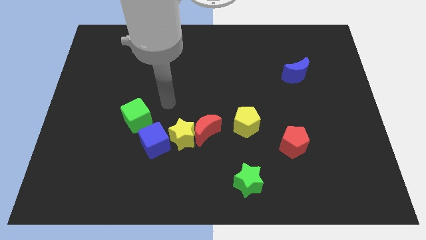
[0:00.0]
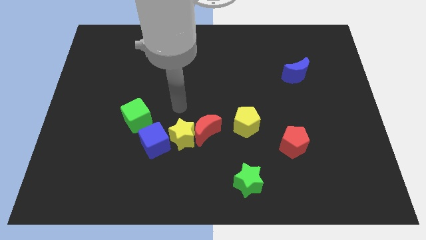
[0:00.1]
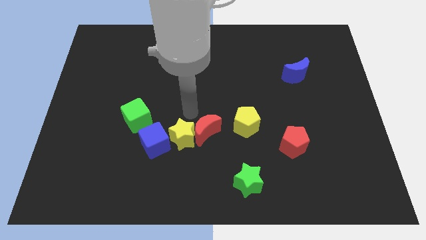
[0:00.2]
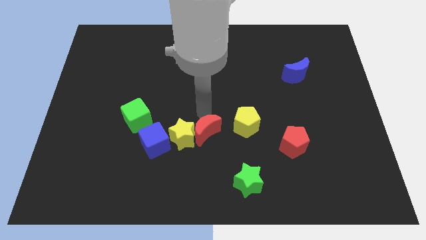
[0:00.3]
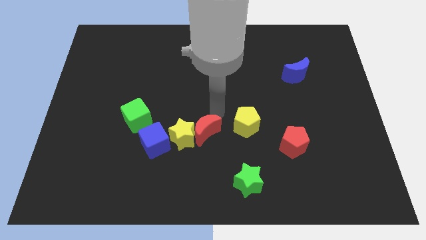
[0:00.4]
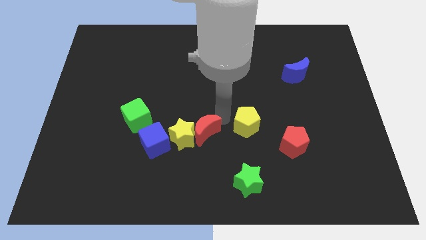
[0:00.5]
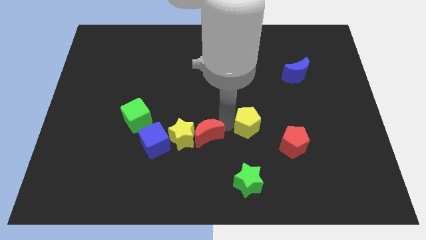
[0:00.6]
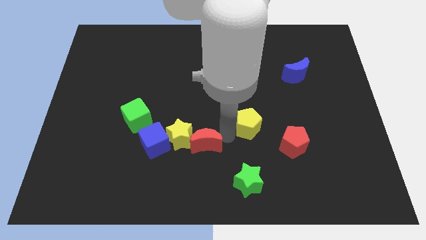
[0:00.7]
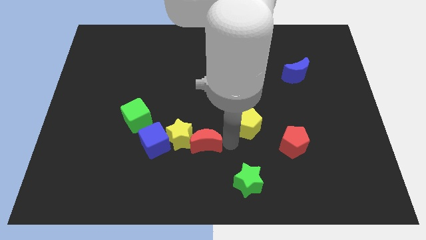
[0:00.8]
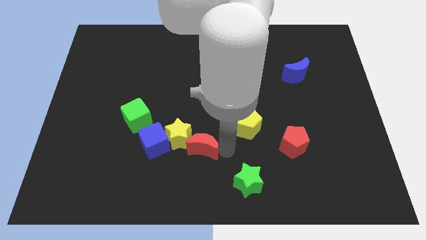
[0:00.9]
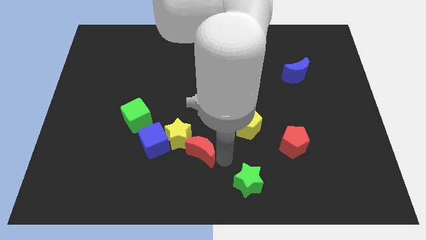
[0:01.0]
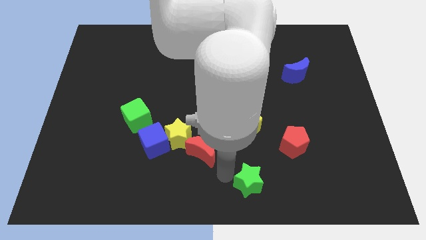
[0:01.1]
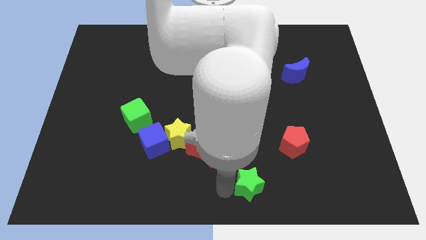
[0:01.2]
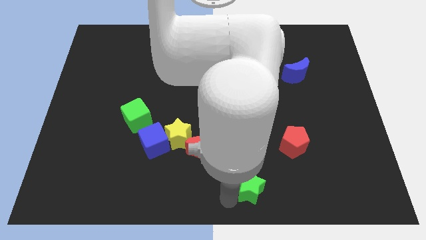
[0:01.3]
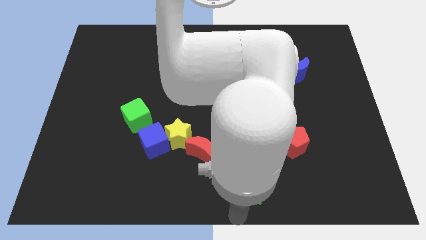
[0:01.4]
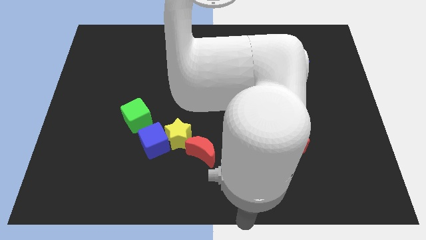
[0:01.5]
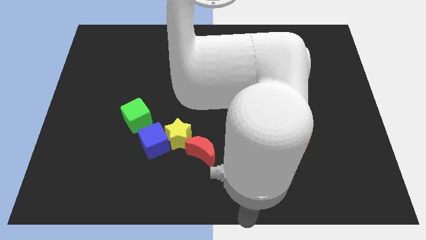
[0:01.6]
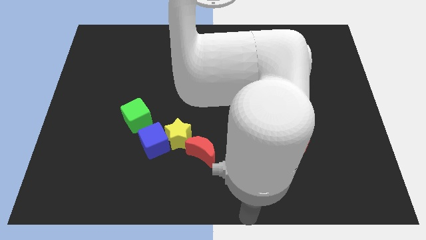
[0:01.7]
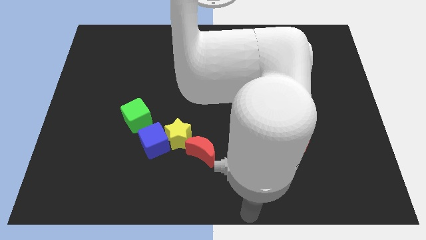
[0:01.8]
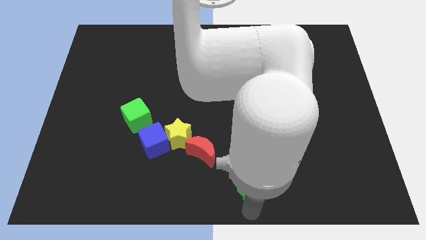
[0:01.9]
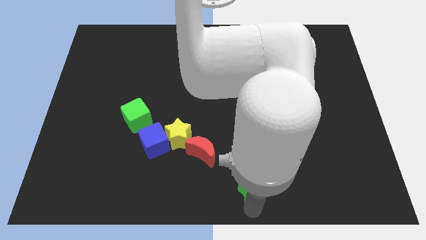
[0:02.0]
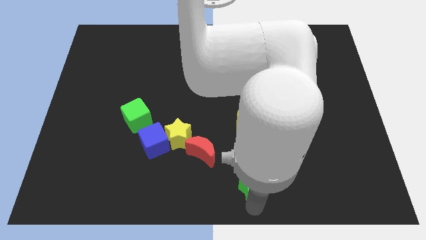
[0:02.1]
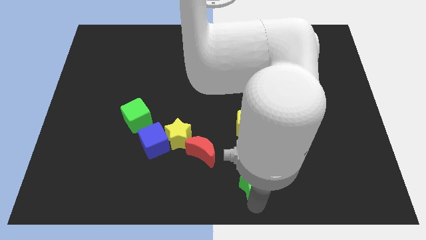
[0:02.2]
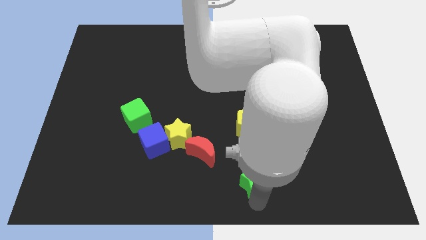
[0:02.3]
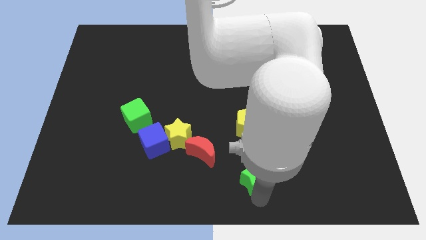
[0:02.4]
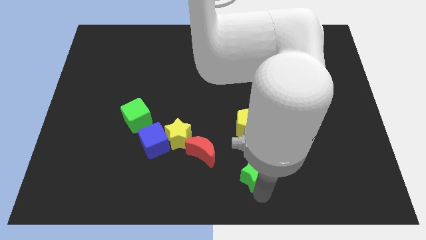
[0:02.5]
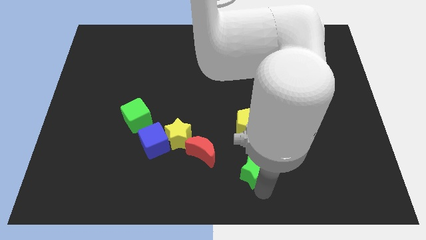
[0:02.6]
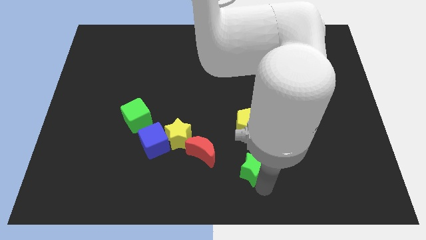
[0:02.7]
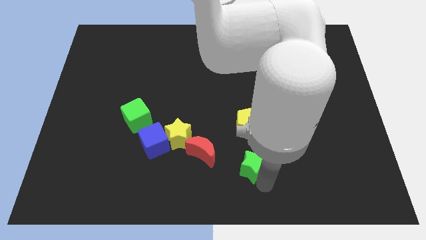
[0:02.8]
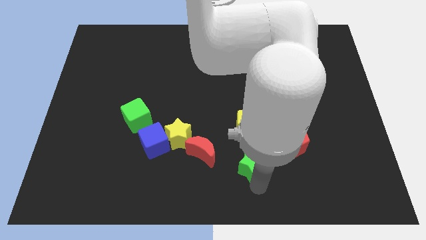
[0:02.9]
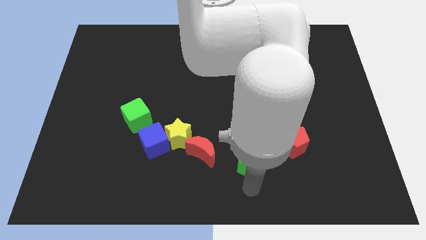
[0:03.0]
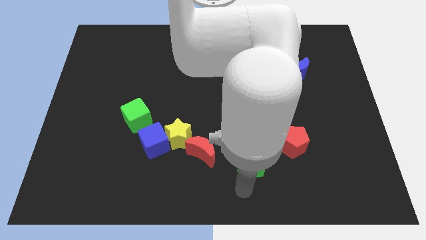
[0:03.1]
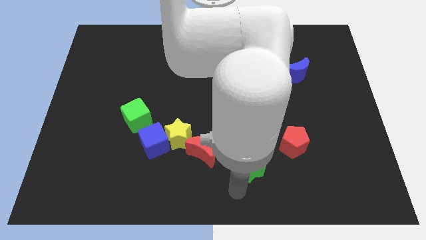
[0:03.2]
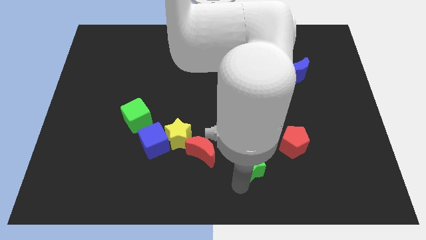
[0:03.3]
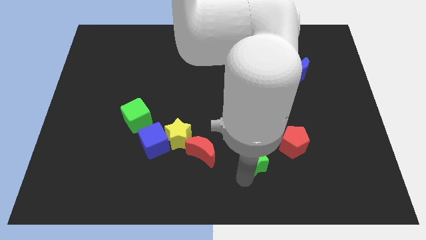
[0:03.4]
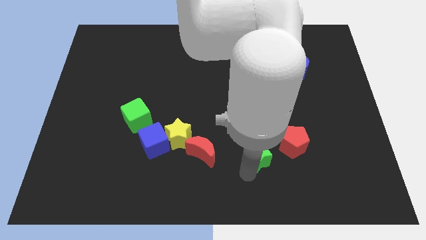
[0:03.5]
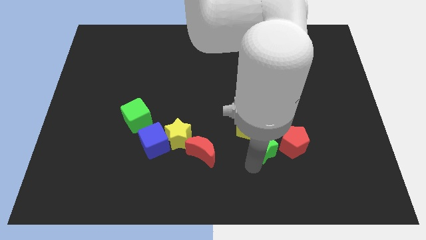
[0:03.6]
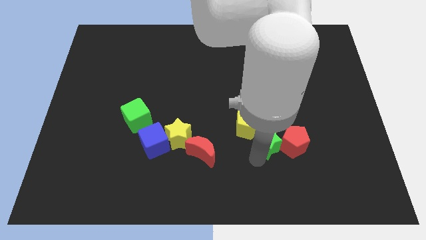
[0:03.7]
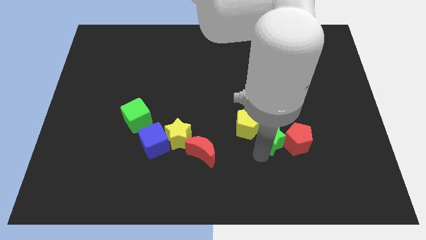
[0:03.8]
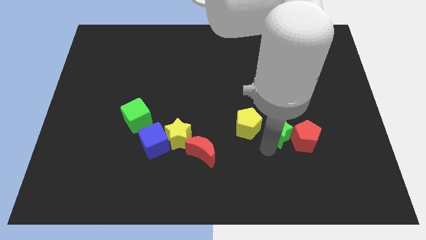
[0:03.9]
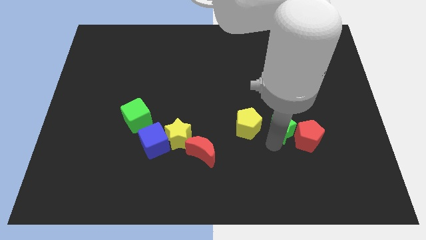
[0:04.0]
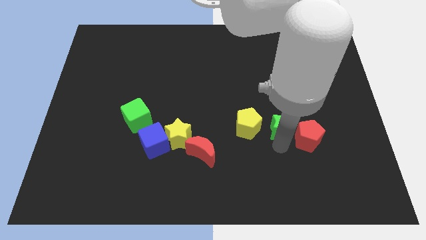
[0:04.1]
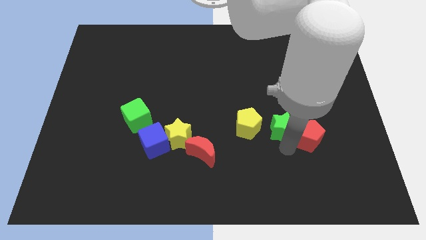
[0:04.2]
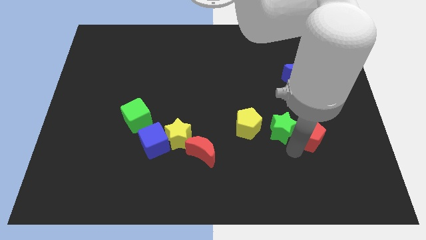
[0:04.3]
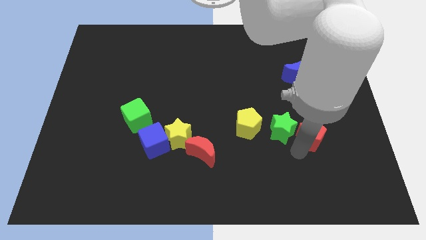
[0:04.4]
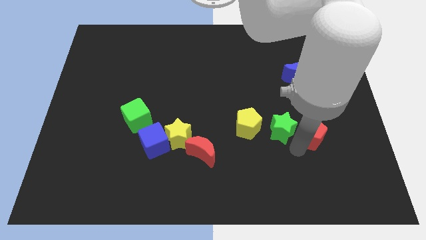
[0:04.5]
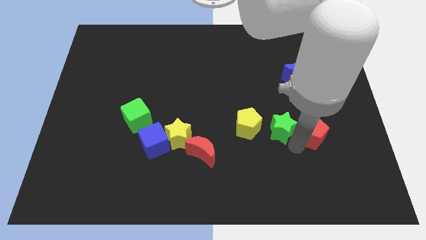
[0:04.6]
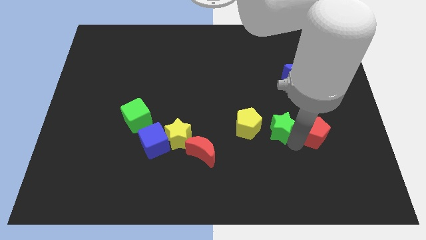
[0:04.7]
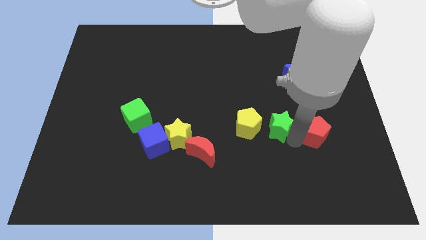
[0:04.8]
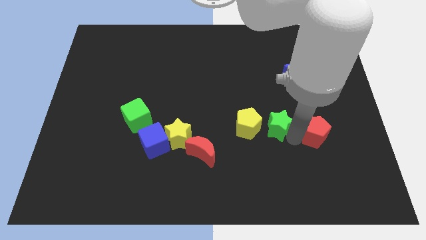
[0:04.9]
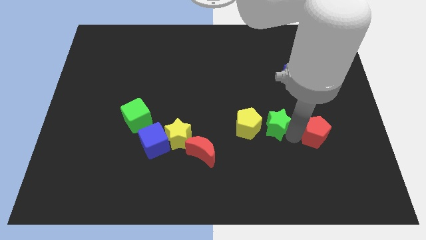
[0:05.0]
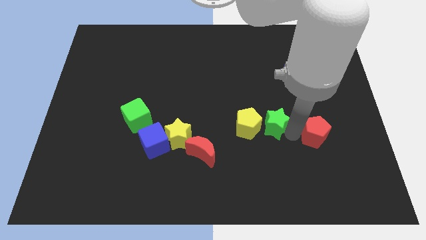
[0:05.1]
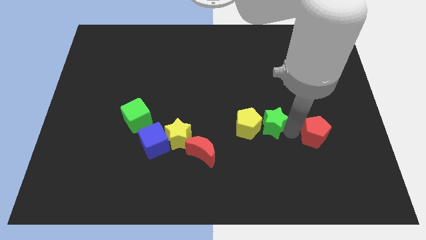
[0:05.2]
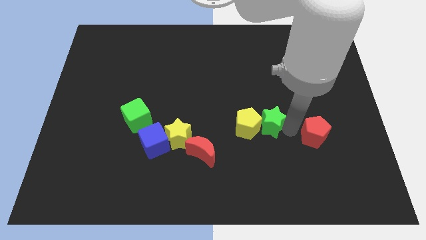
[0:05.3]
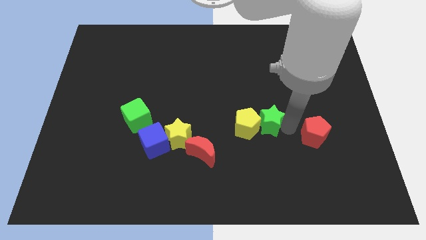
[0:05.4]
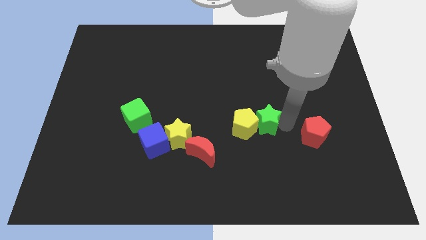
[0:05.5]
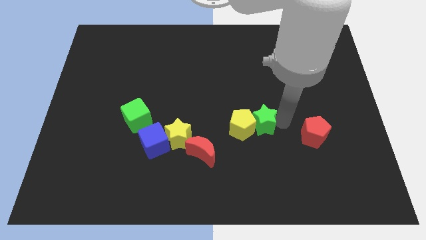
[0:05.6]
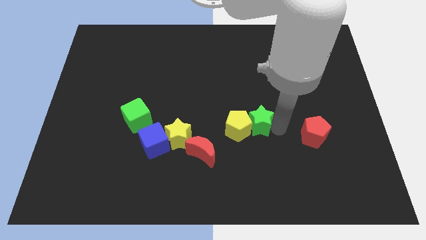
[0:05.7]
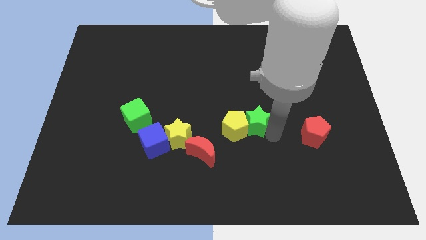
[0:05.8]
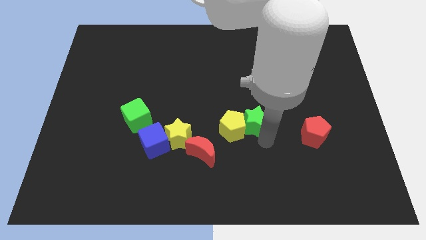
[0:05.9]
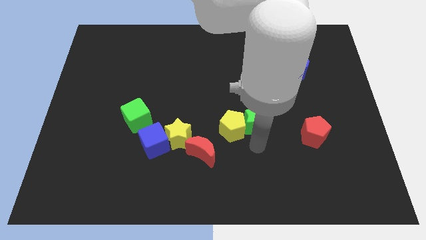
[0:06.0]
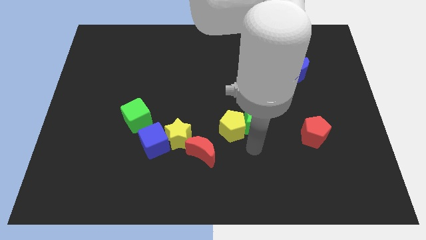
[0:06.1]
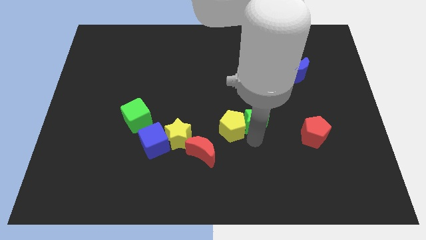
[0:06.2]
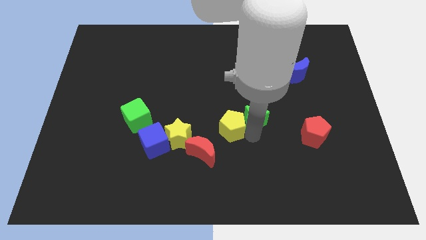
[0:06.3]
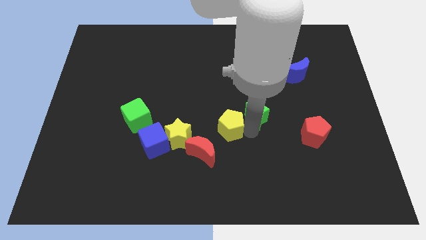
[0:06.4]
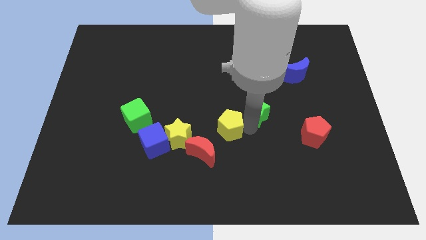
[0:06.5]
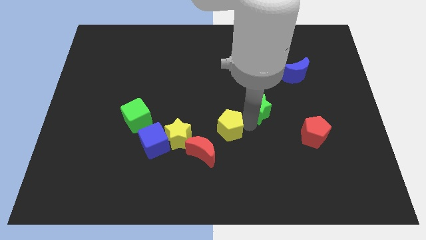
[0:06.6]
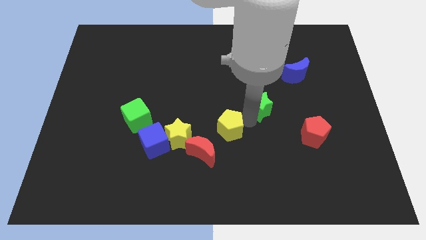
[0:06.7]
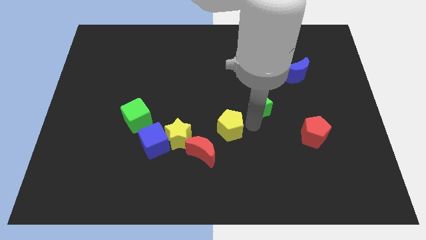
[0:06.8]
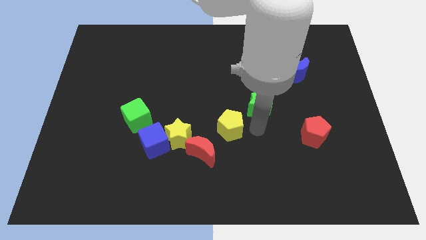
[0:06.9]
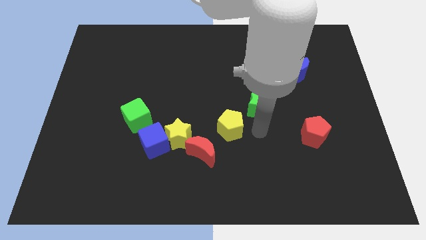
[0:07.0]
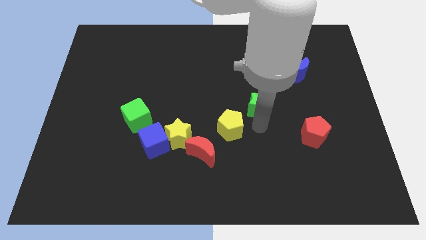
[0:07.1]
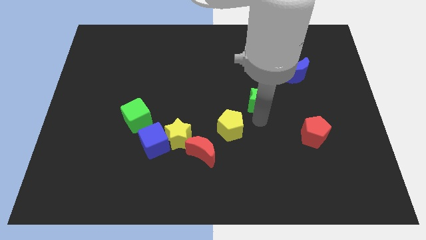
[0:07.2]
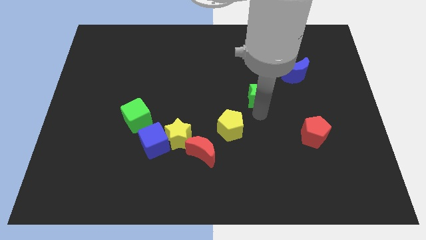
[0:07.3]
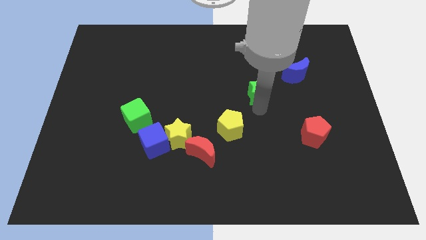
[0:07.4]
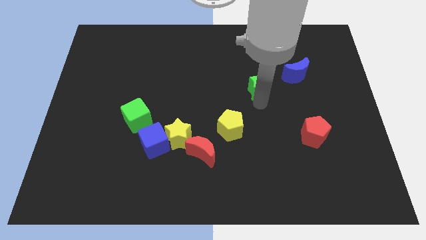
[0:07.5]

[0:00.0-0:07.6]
push the green star to the left side of the blue moon
